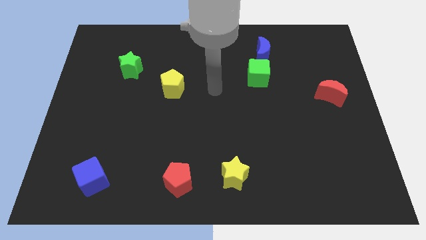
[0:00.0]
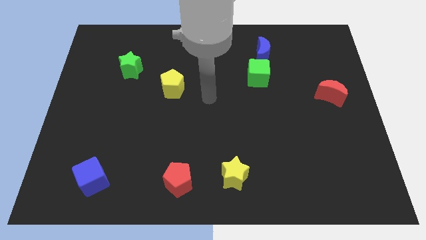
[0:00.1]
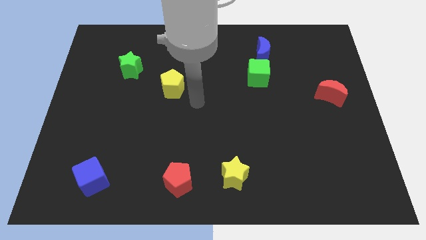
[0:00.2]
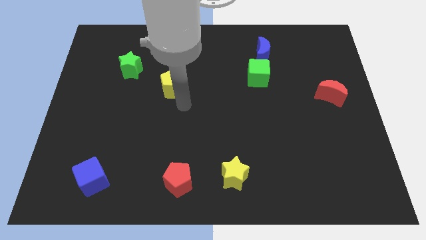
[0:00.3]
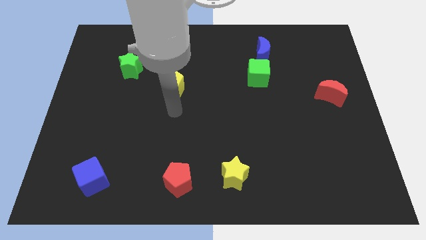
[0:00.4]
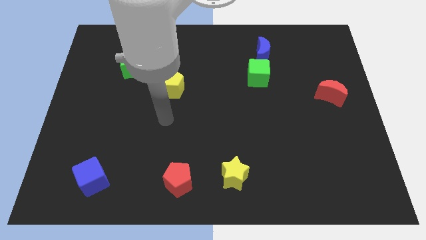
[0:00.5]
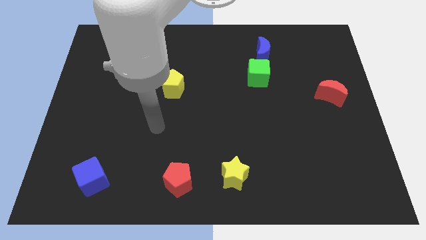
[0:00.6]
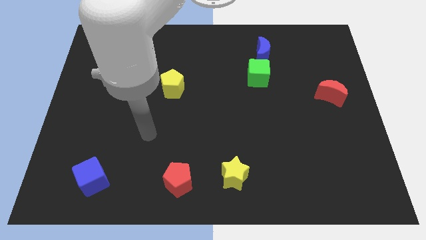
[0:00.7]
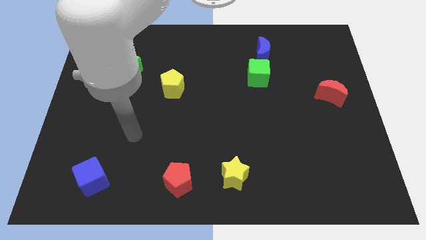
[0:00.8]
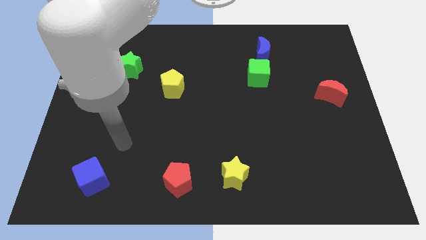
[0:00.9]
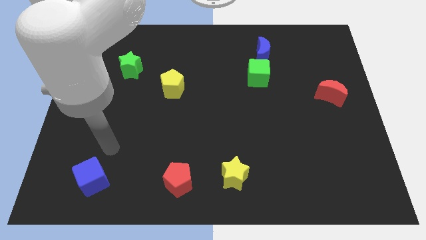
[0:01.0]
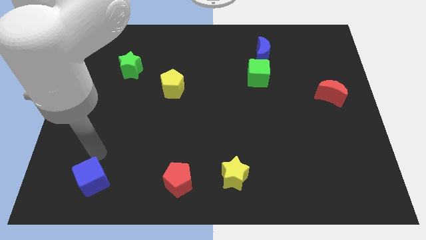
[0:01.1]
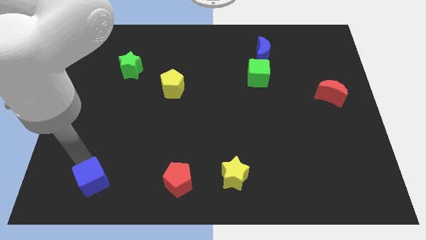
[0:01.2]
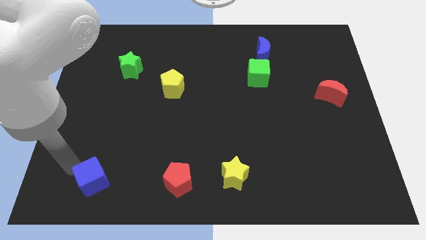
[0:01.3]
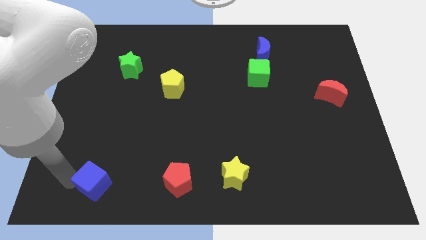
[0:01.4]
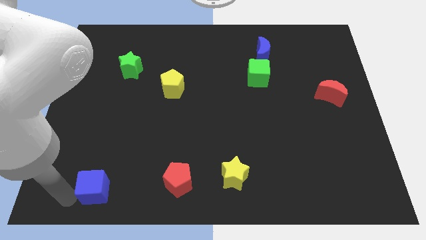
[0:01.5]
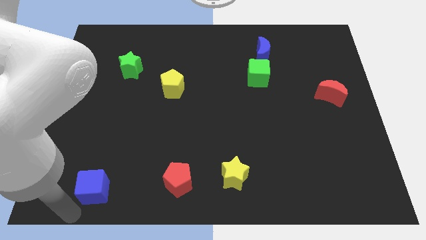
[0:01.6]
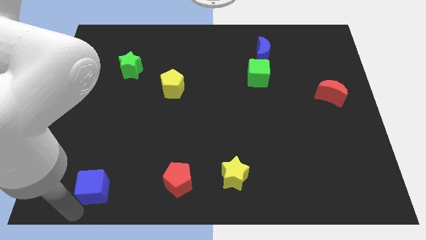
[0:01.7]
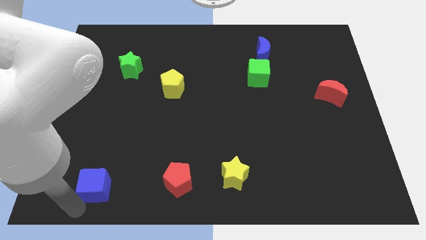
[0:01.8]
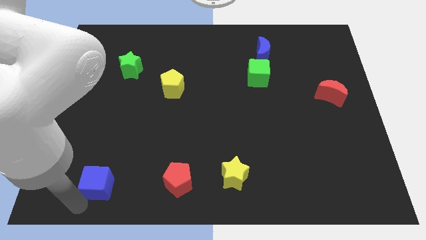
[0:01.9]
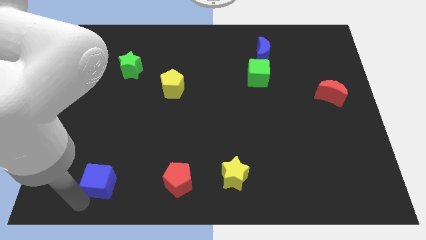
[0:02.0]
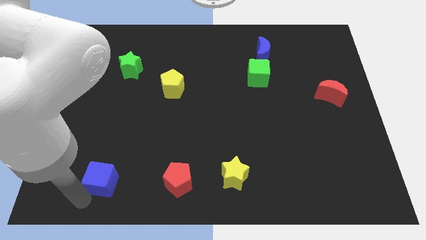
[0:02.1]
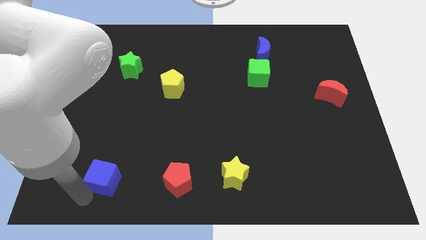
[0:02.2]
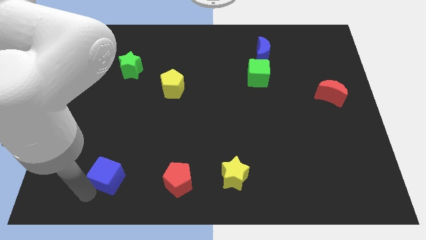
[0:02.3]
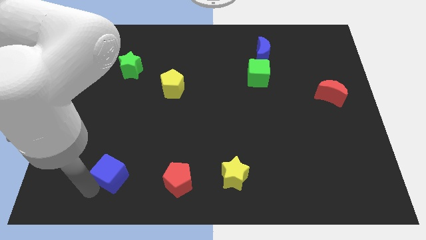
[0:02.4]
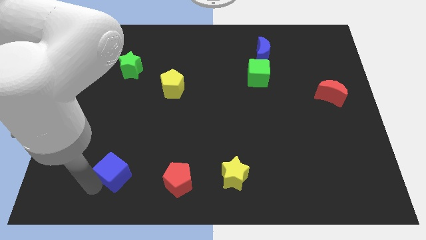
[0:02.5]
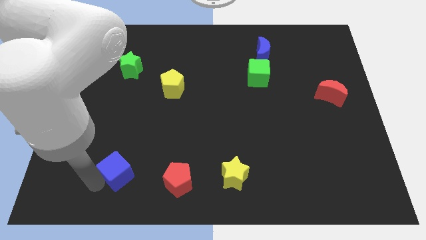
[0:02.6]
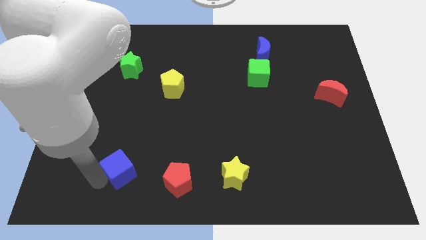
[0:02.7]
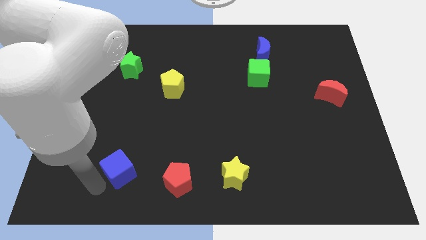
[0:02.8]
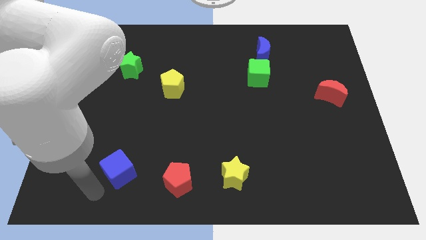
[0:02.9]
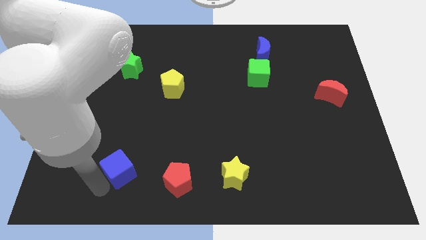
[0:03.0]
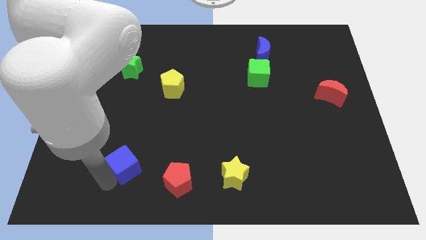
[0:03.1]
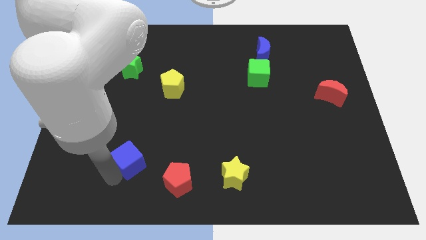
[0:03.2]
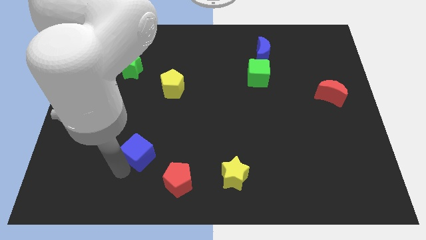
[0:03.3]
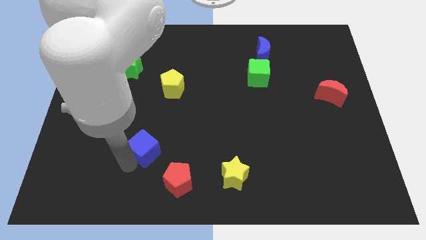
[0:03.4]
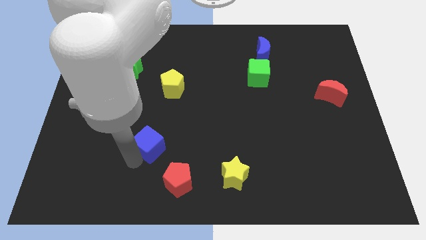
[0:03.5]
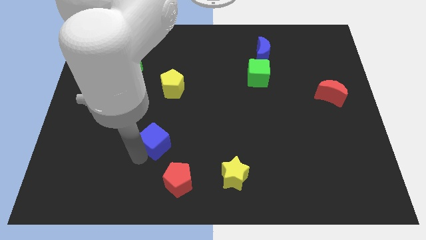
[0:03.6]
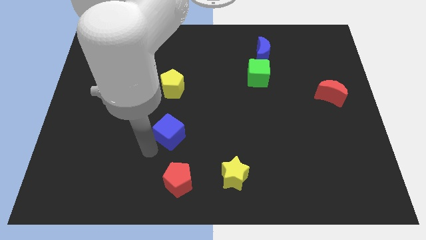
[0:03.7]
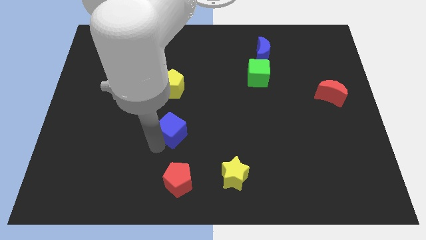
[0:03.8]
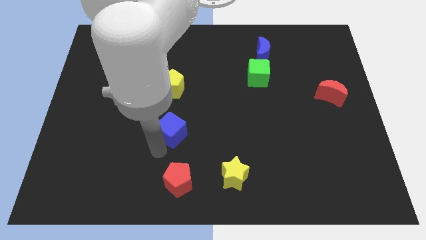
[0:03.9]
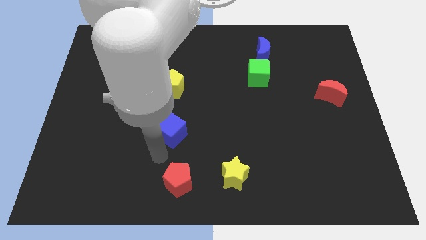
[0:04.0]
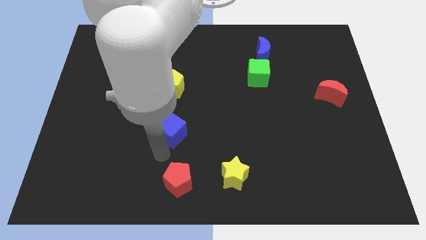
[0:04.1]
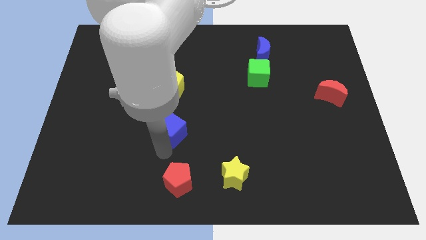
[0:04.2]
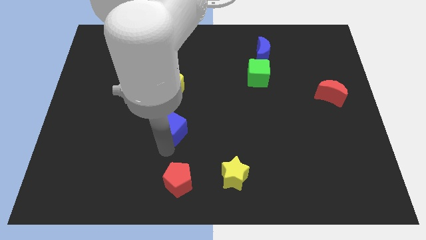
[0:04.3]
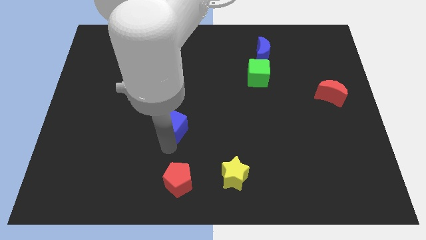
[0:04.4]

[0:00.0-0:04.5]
slide the blue cube up and right

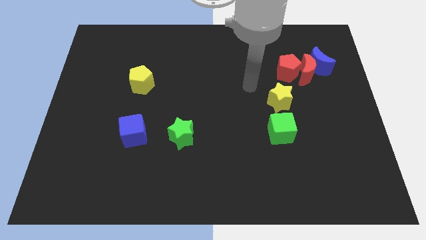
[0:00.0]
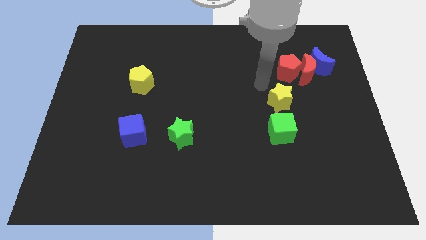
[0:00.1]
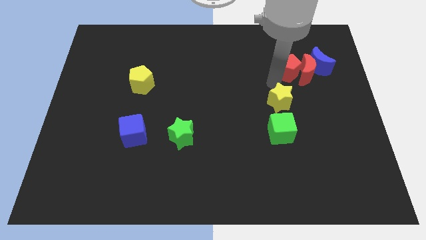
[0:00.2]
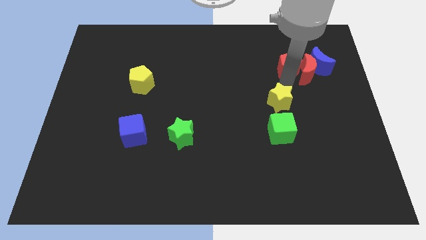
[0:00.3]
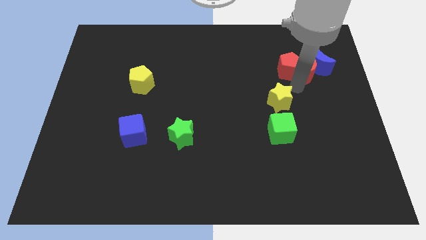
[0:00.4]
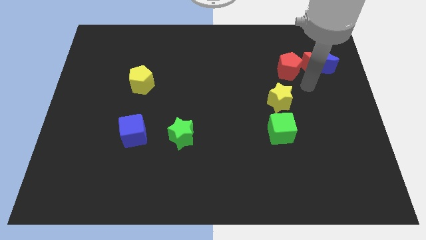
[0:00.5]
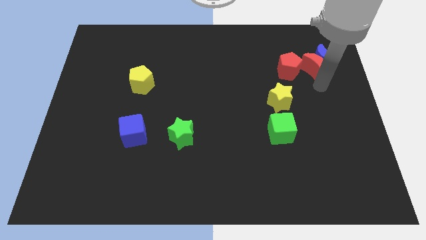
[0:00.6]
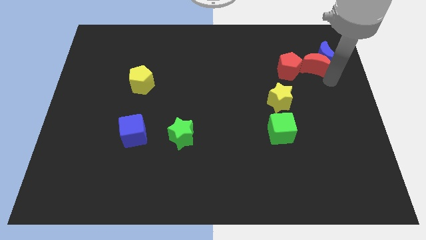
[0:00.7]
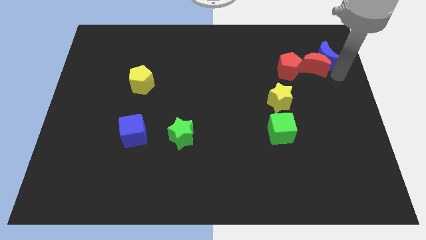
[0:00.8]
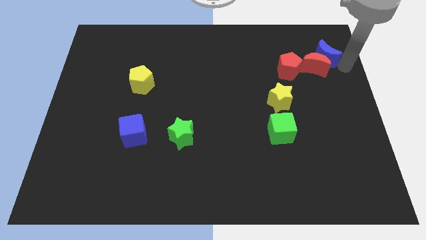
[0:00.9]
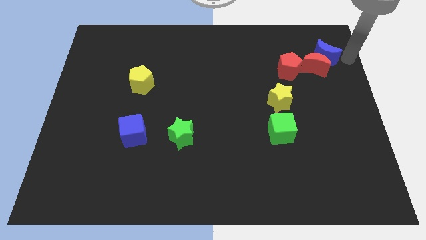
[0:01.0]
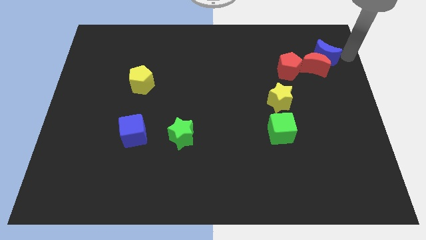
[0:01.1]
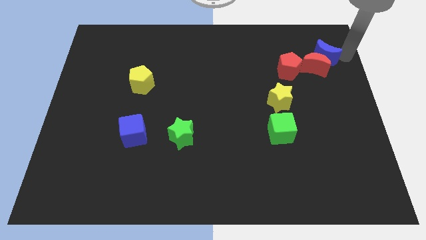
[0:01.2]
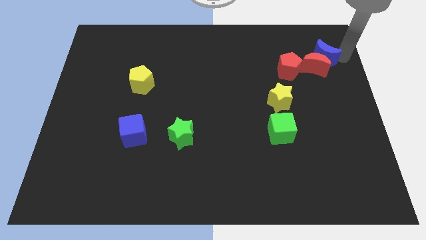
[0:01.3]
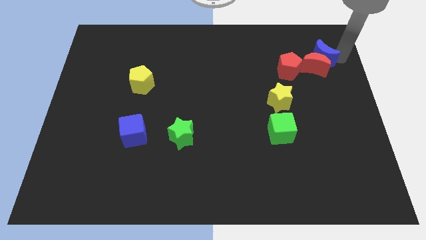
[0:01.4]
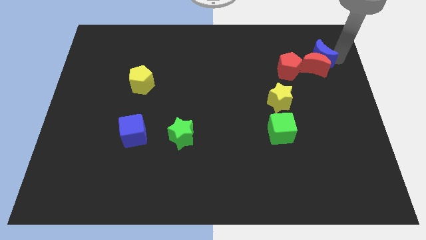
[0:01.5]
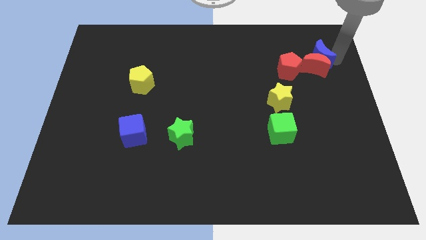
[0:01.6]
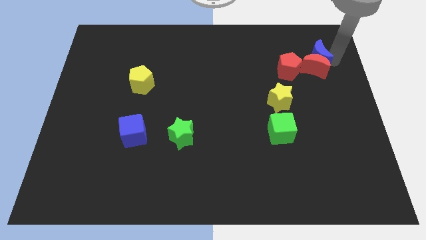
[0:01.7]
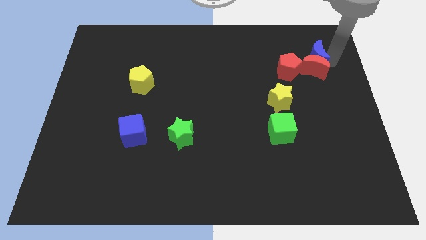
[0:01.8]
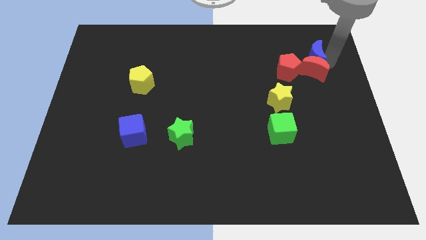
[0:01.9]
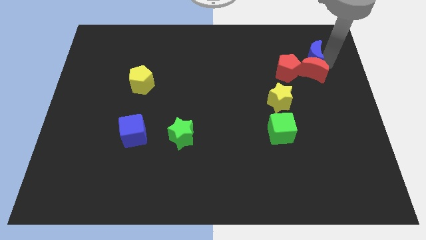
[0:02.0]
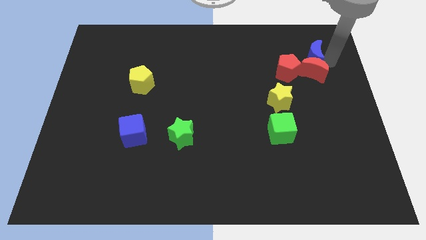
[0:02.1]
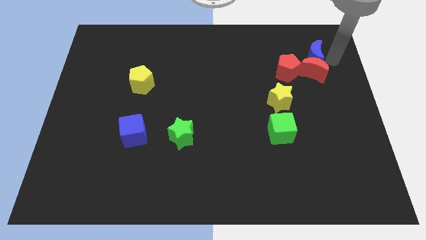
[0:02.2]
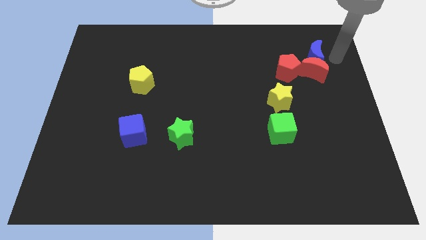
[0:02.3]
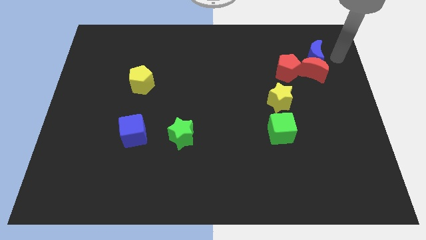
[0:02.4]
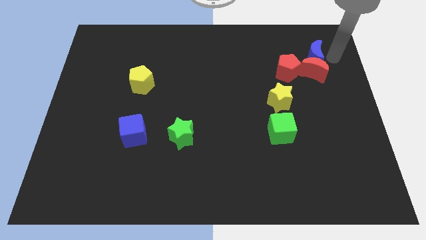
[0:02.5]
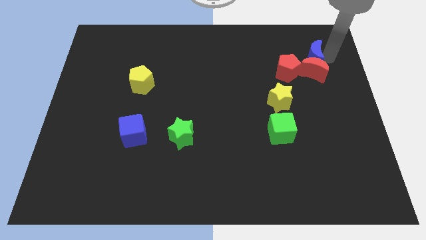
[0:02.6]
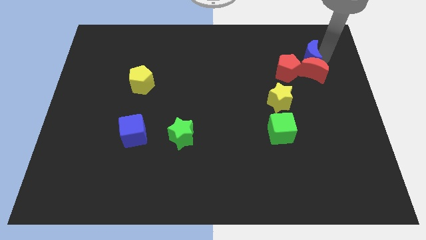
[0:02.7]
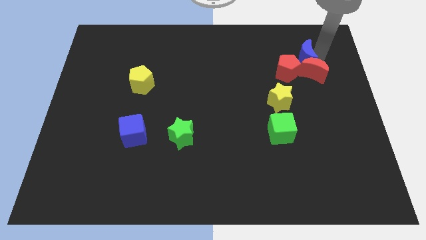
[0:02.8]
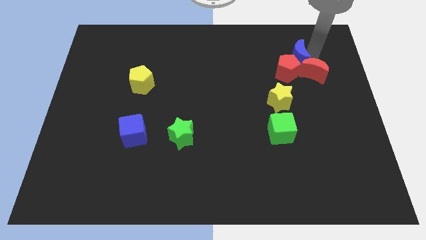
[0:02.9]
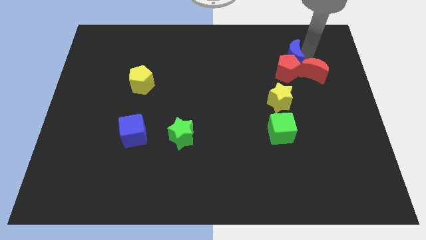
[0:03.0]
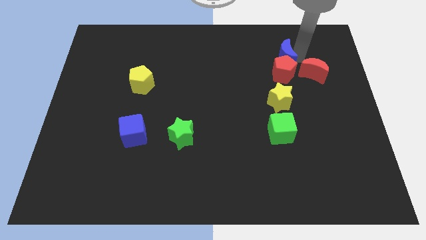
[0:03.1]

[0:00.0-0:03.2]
push the blue moon a little left
